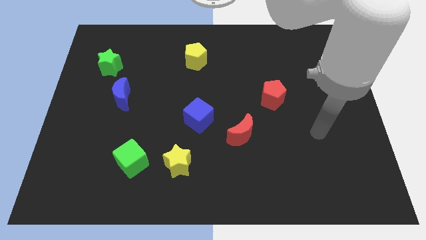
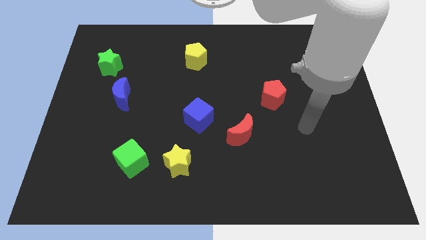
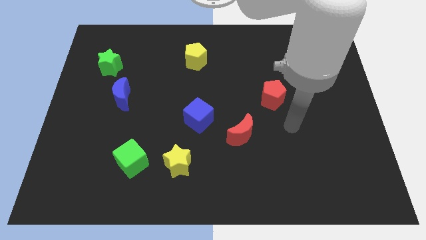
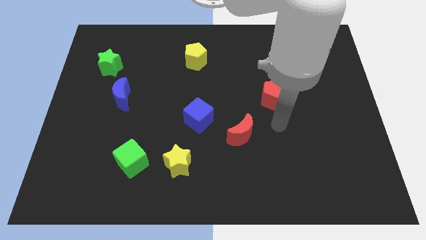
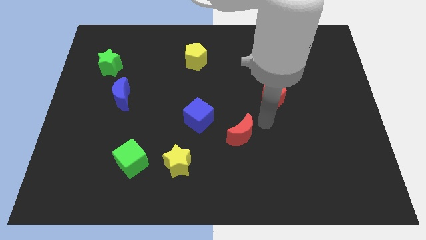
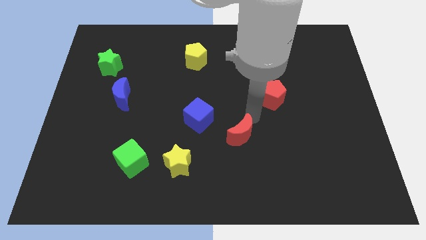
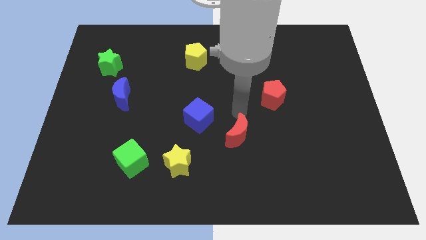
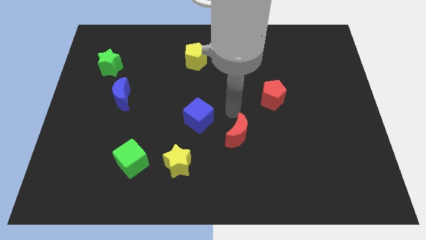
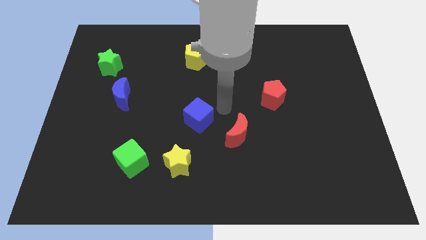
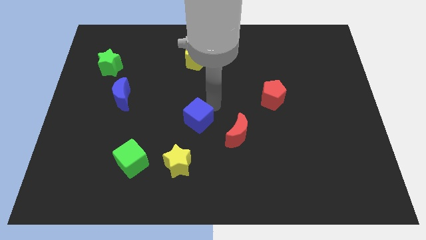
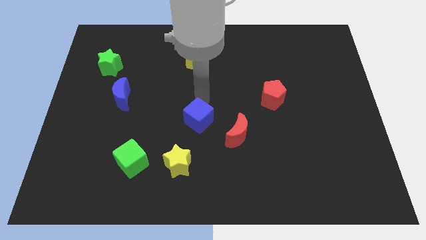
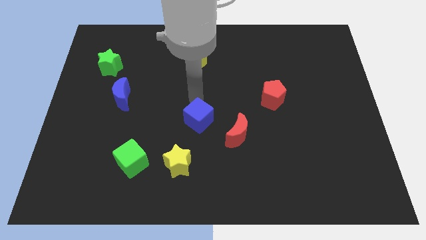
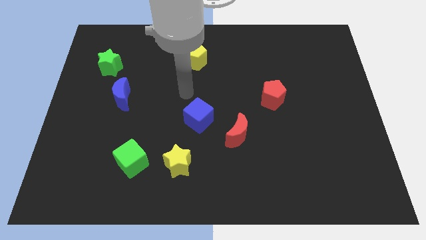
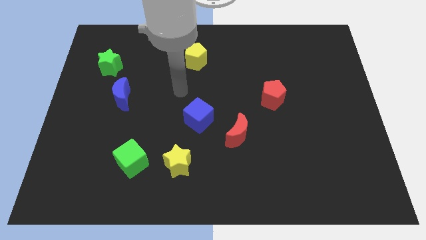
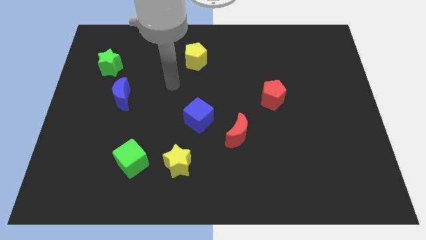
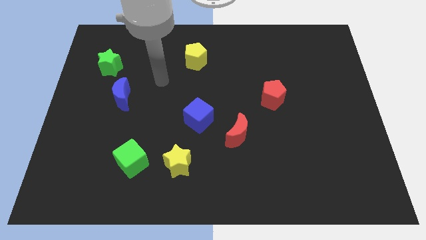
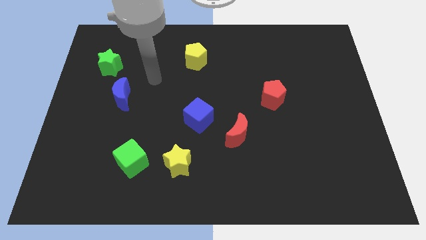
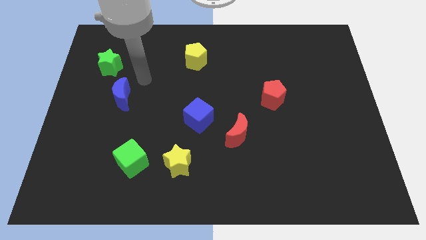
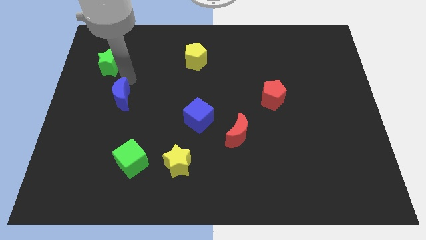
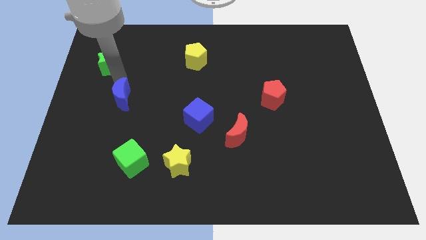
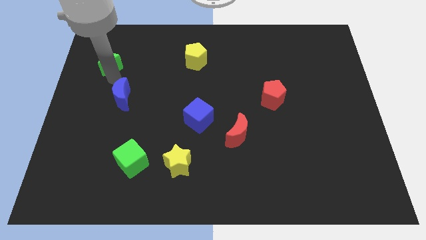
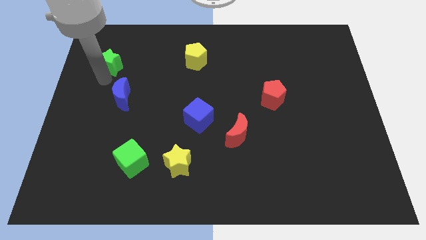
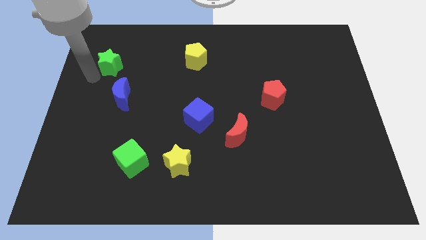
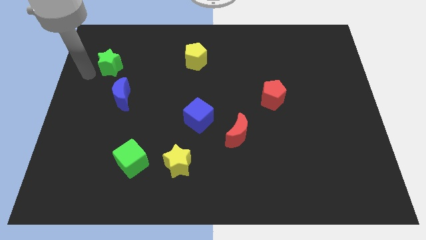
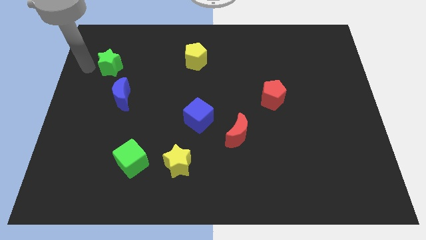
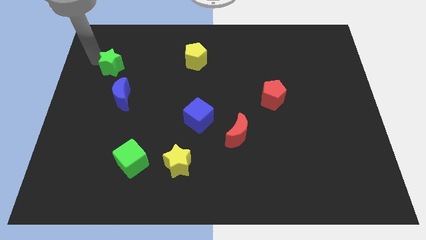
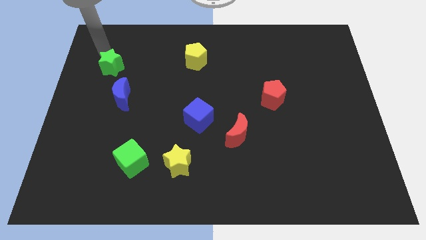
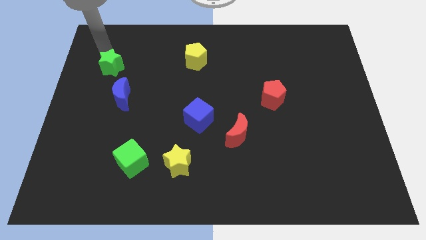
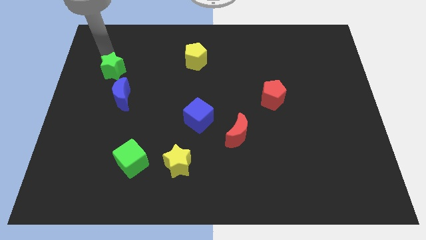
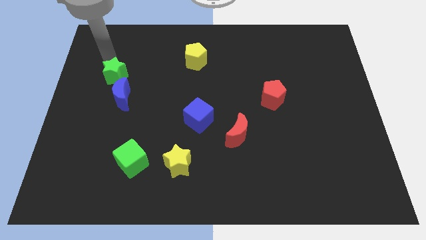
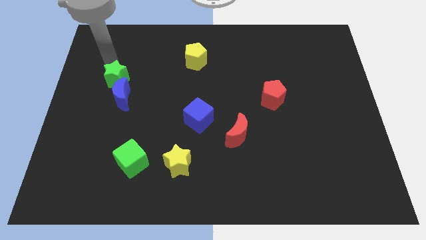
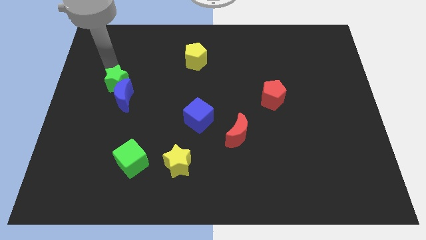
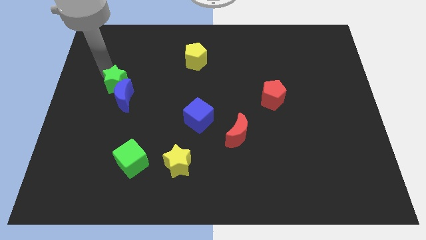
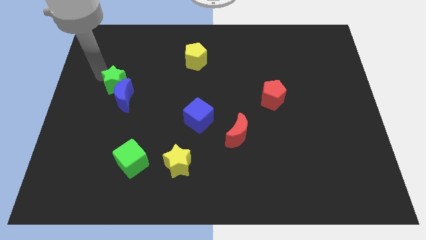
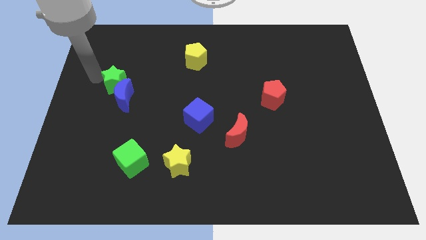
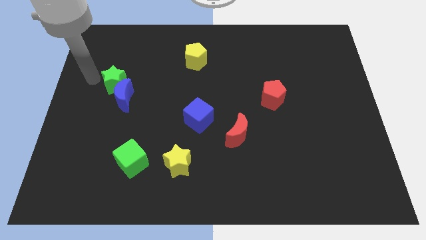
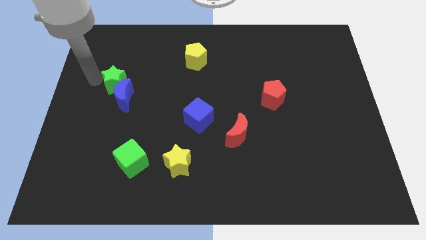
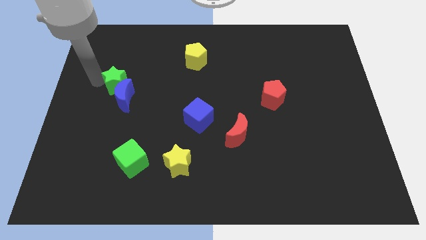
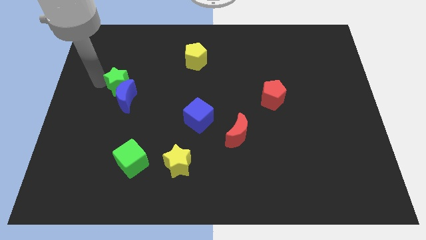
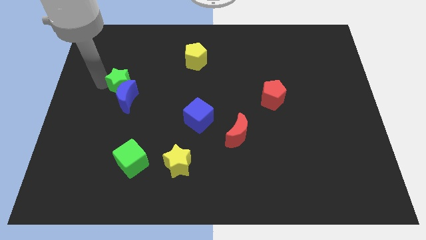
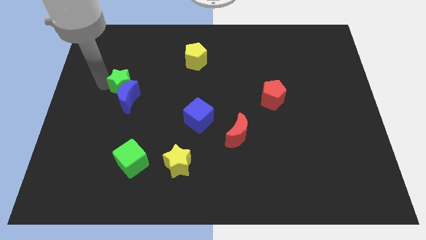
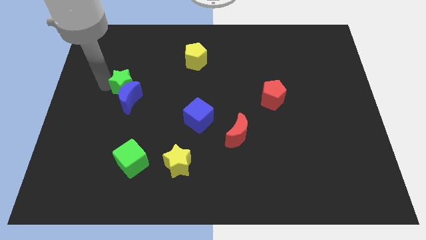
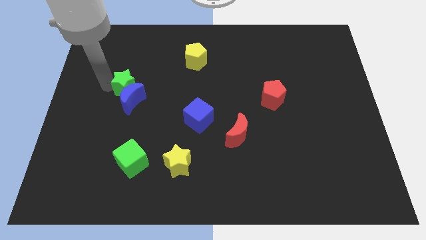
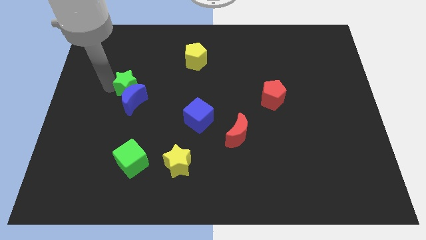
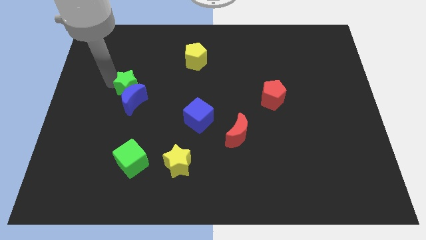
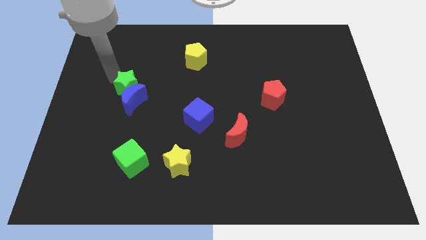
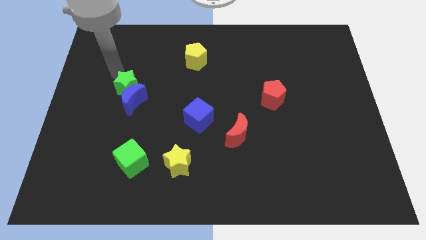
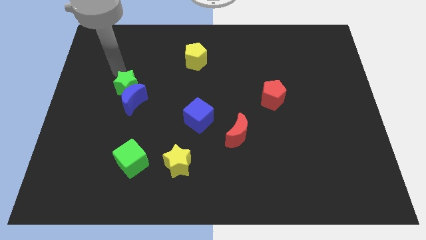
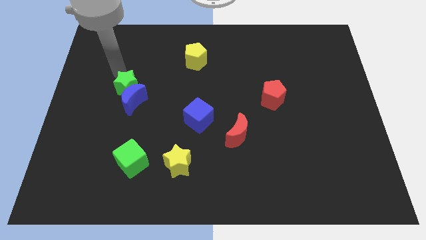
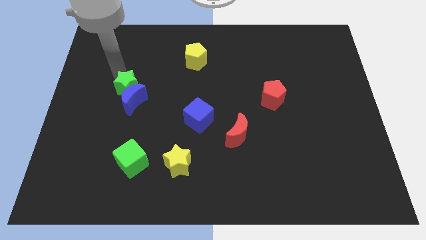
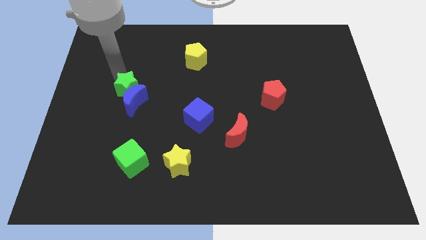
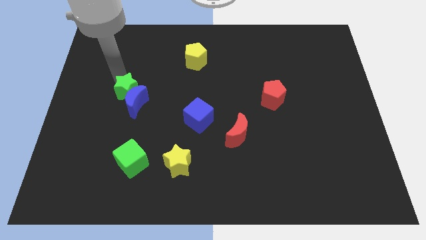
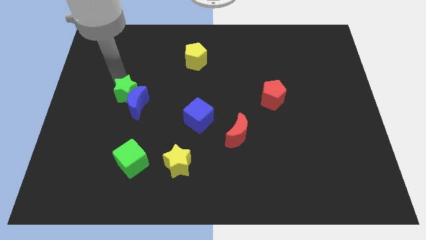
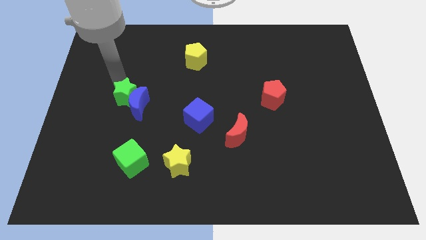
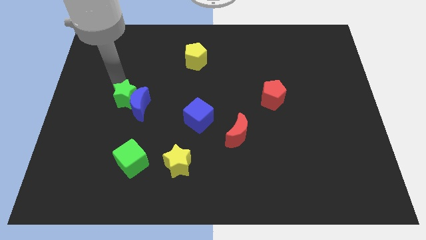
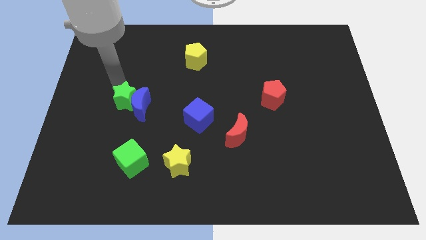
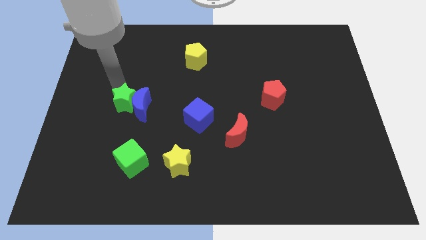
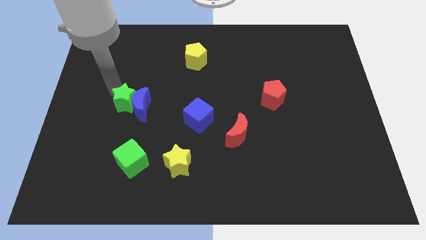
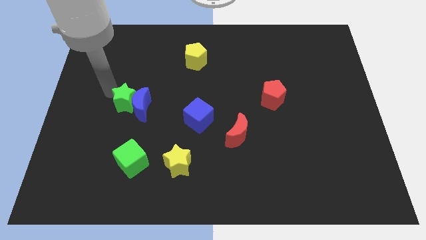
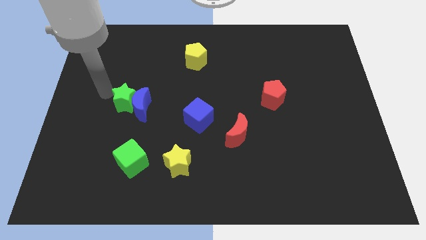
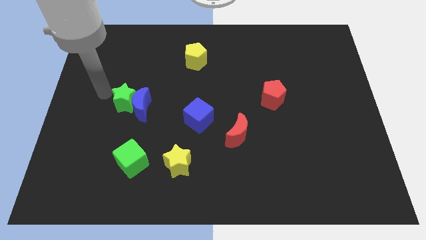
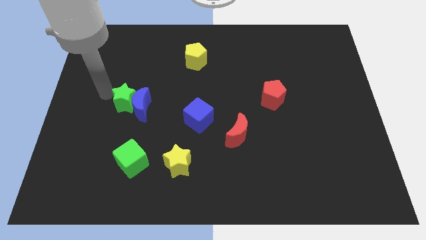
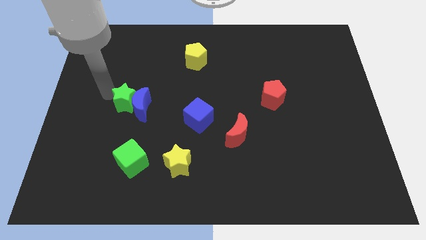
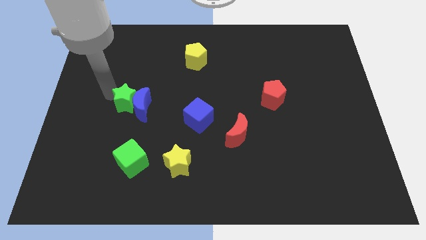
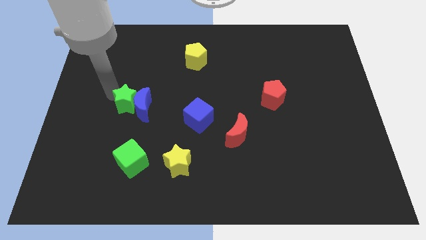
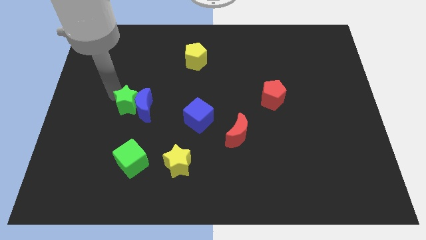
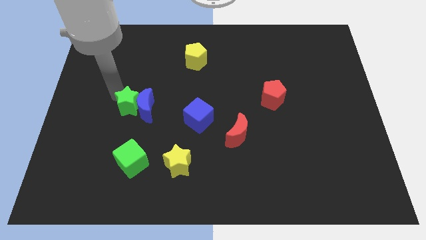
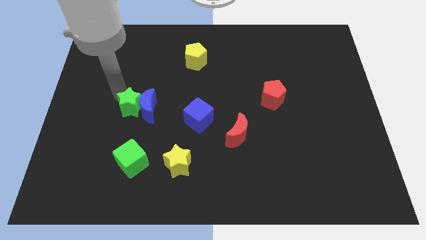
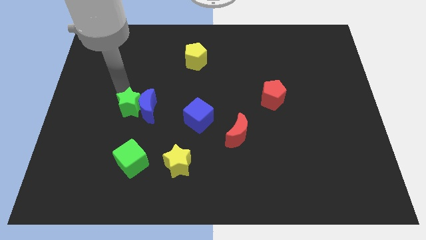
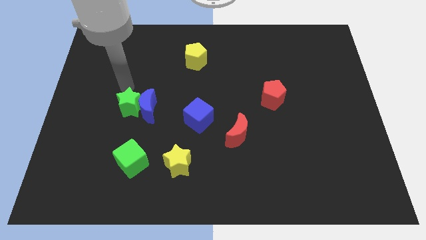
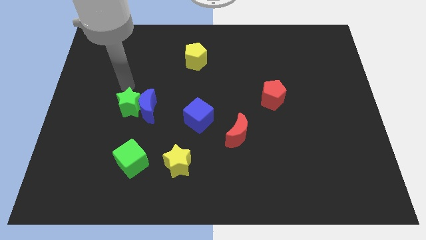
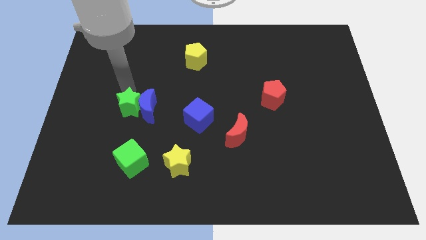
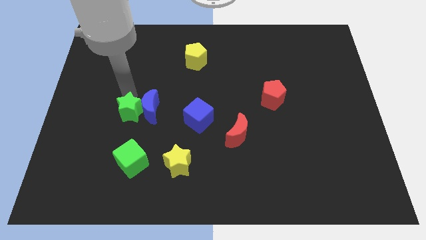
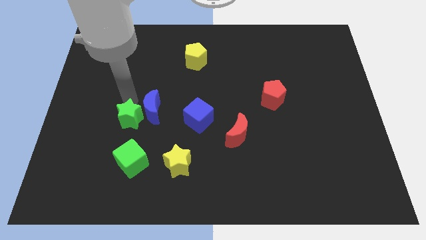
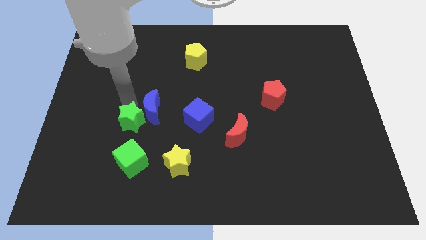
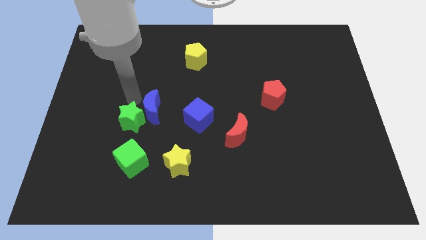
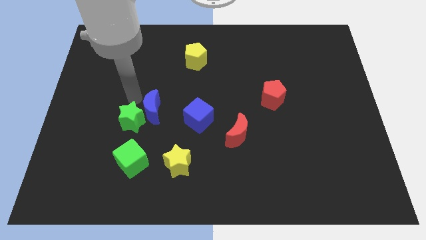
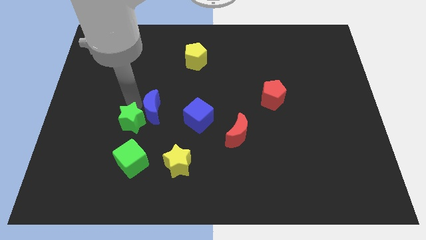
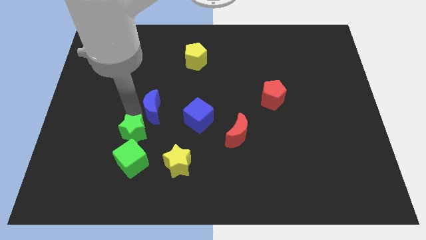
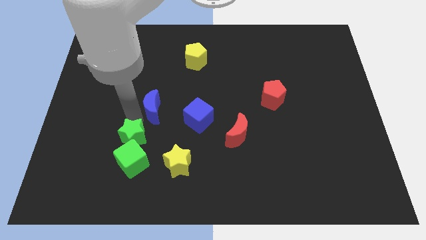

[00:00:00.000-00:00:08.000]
move the green star to the green cube
